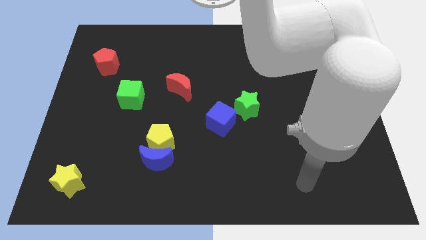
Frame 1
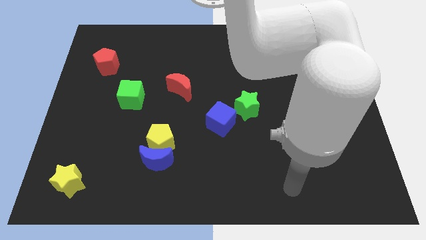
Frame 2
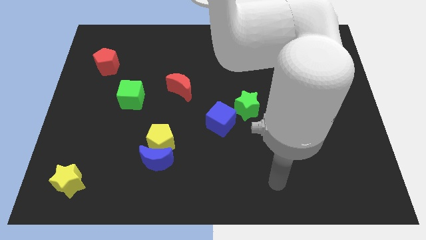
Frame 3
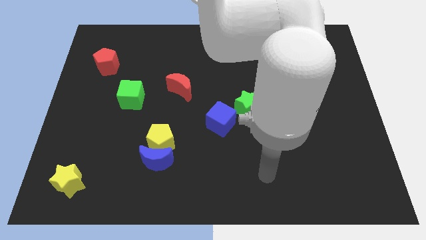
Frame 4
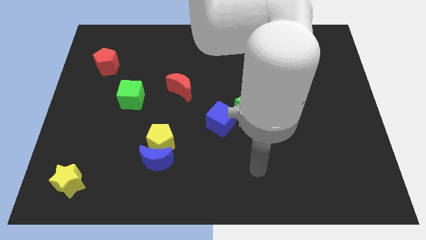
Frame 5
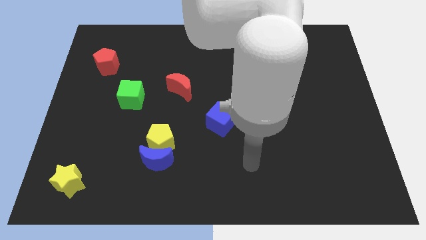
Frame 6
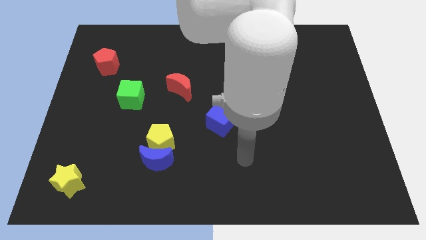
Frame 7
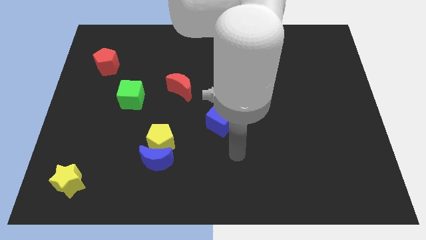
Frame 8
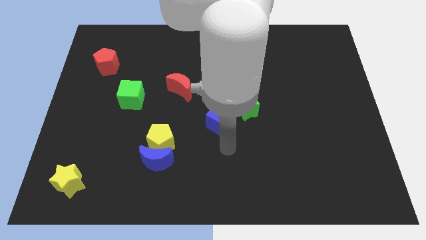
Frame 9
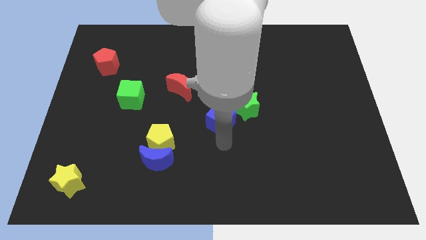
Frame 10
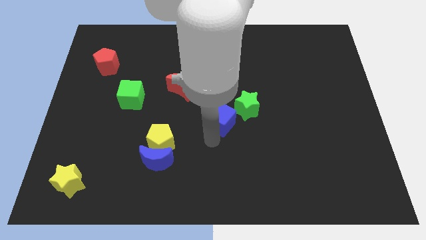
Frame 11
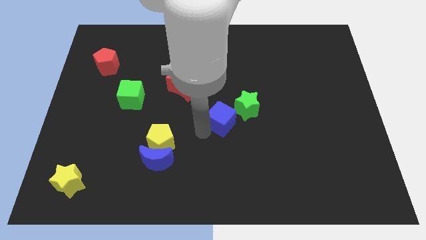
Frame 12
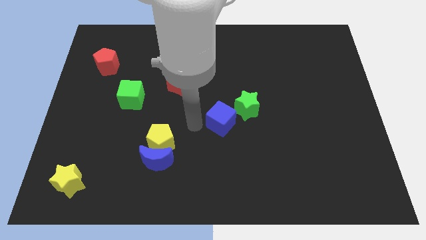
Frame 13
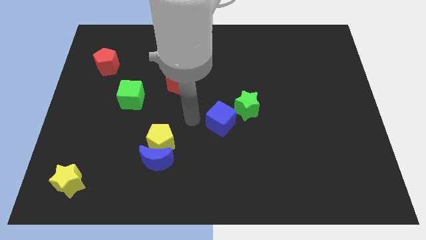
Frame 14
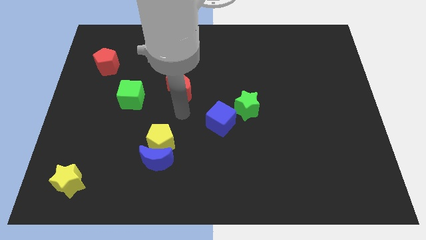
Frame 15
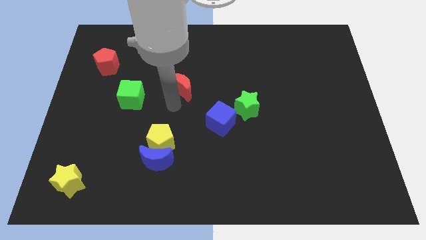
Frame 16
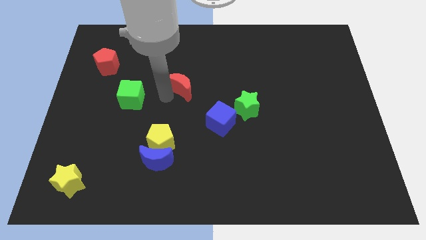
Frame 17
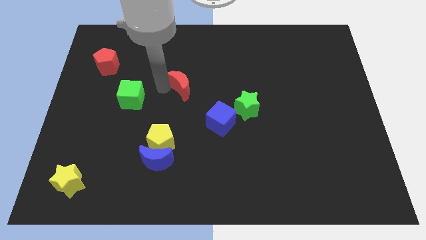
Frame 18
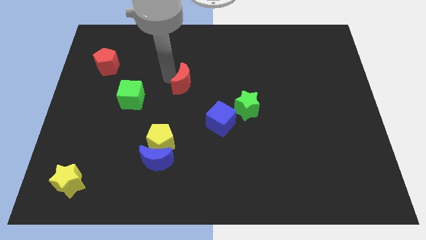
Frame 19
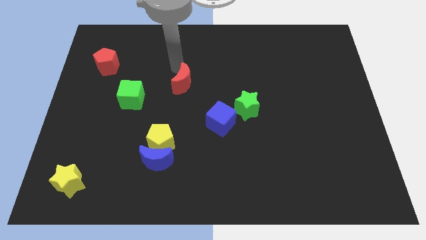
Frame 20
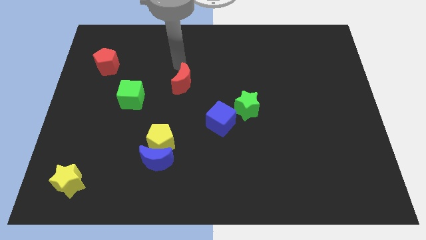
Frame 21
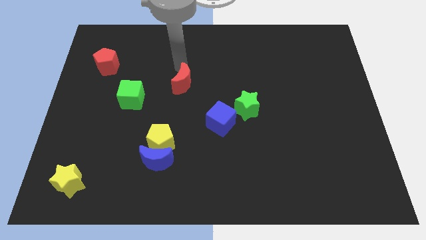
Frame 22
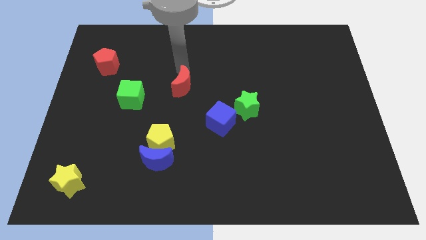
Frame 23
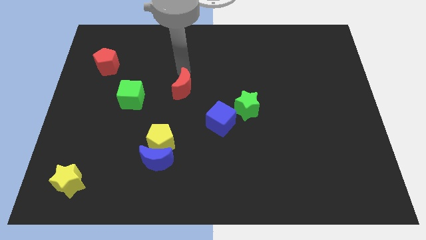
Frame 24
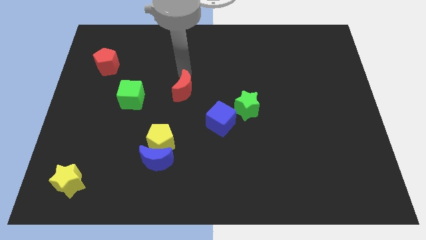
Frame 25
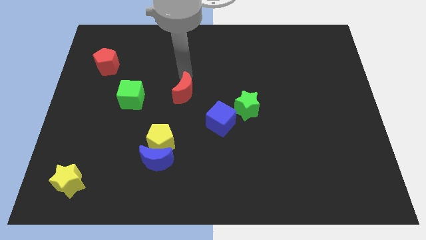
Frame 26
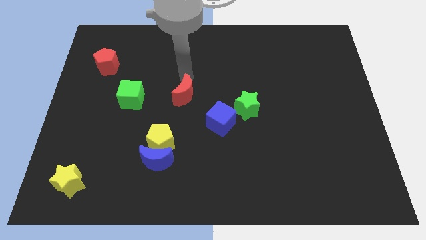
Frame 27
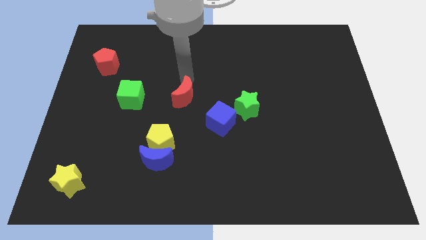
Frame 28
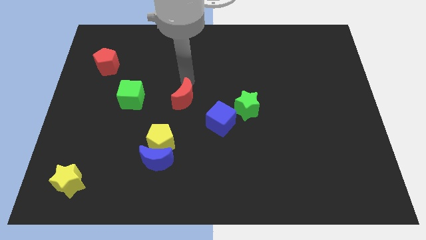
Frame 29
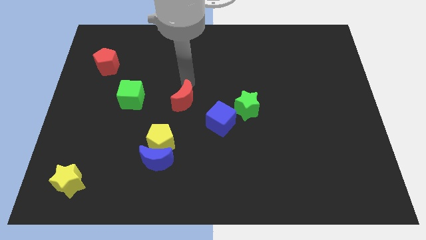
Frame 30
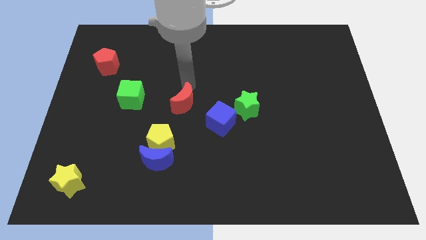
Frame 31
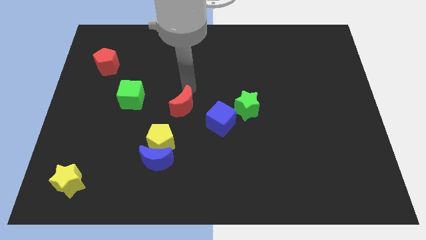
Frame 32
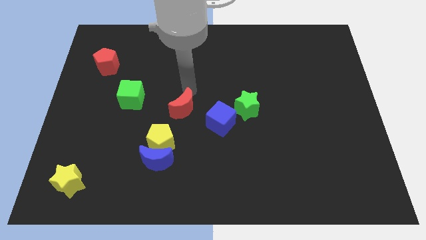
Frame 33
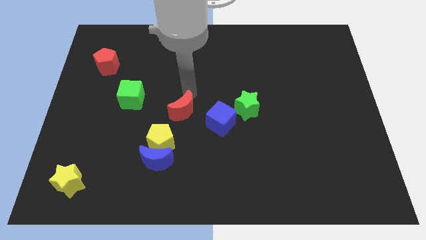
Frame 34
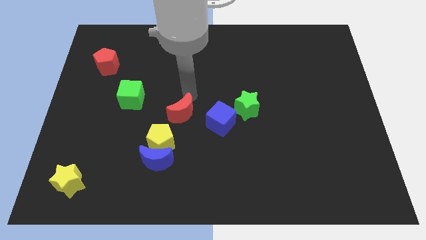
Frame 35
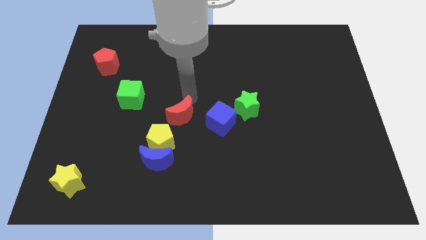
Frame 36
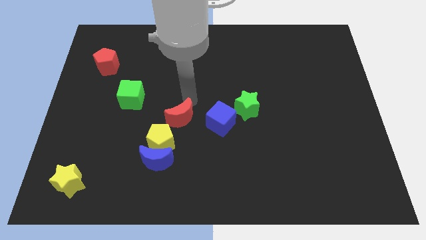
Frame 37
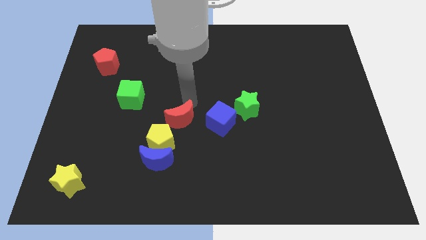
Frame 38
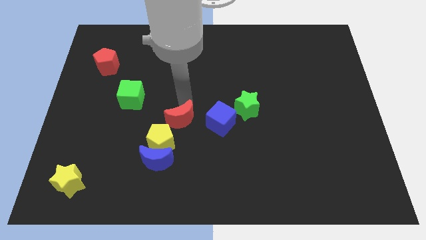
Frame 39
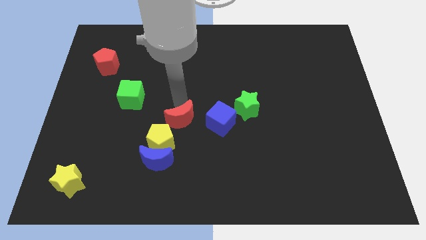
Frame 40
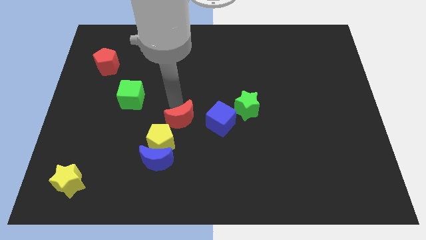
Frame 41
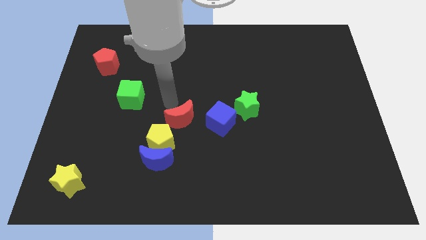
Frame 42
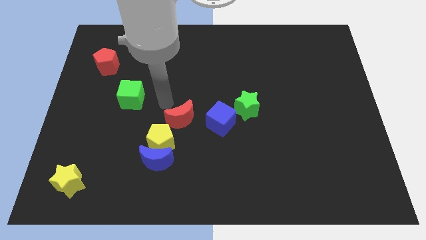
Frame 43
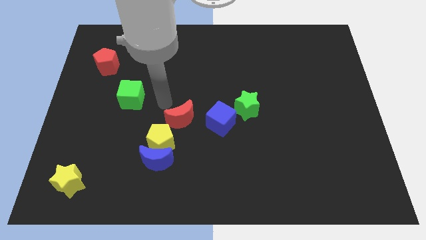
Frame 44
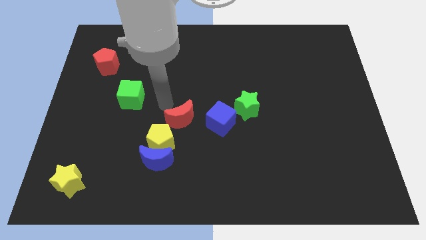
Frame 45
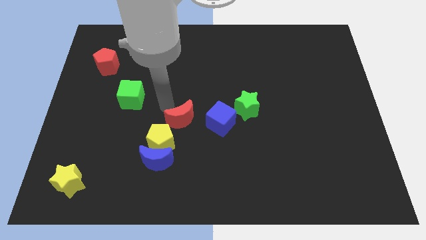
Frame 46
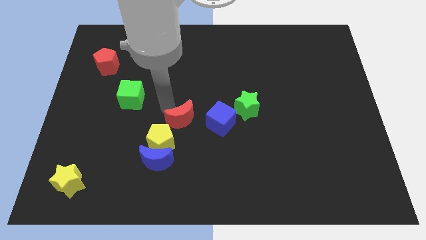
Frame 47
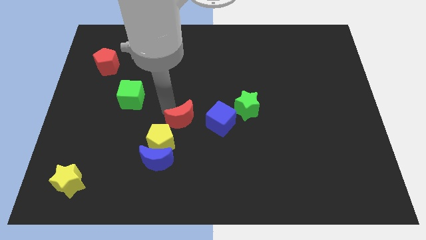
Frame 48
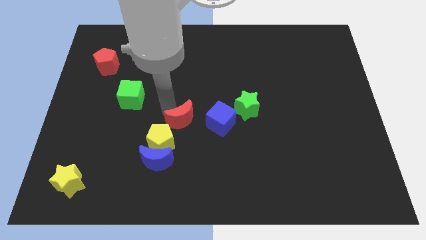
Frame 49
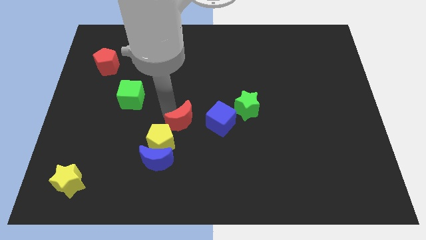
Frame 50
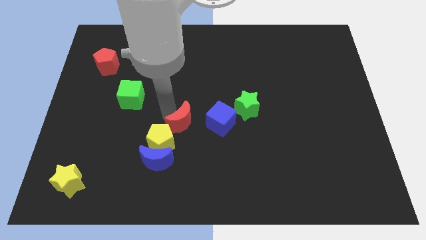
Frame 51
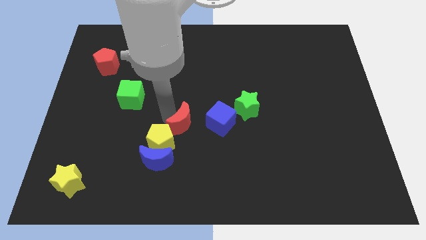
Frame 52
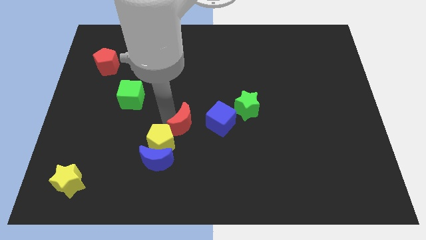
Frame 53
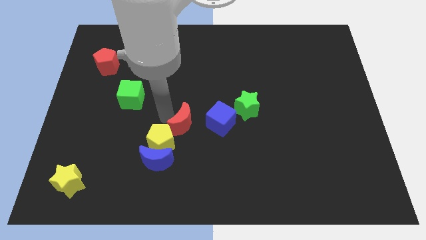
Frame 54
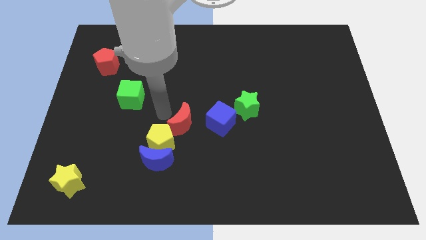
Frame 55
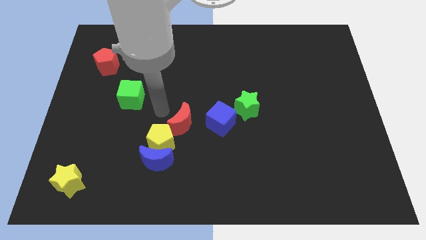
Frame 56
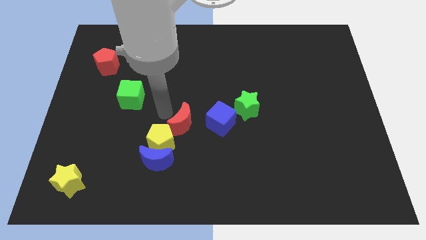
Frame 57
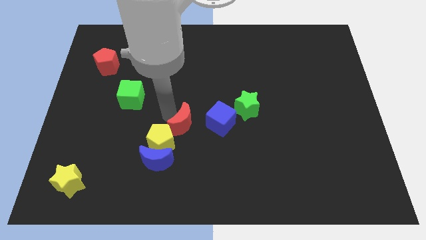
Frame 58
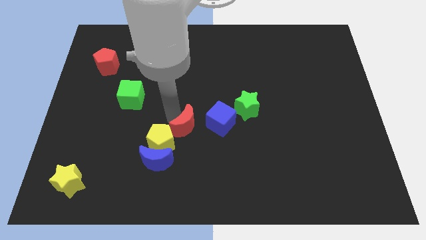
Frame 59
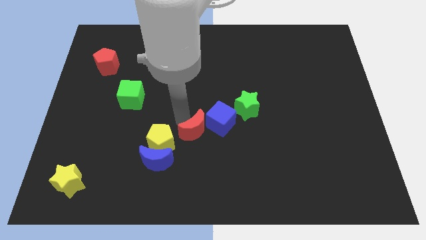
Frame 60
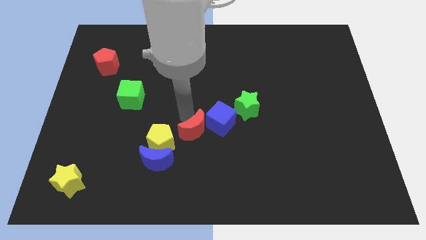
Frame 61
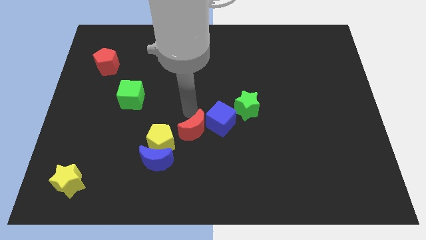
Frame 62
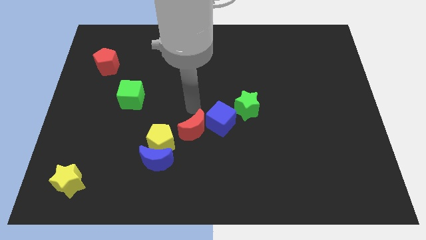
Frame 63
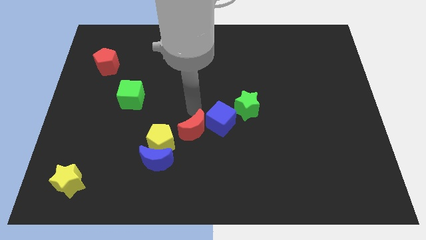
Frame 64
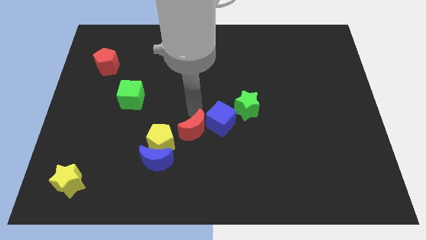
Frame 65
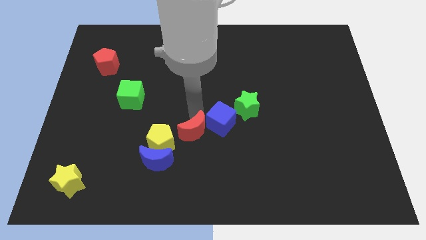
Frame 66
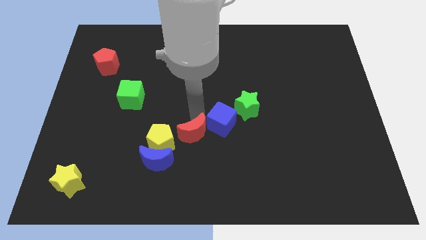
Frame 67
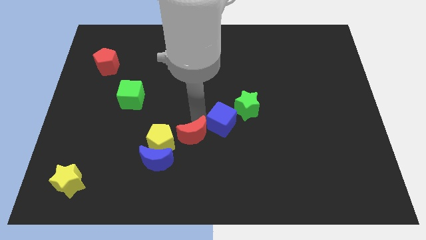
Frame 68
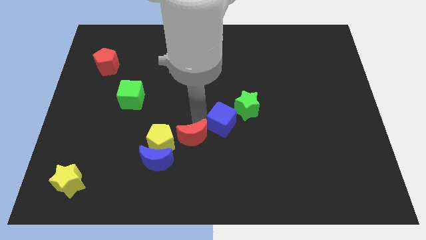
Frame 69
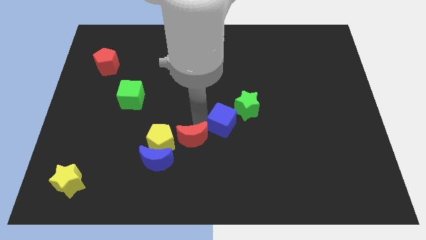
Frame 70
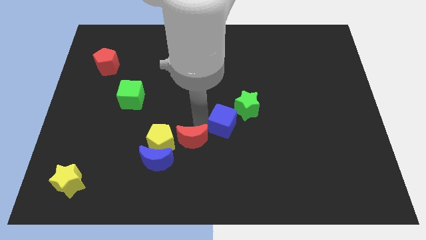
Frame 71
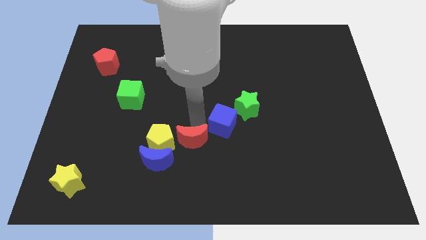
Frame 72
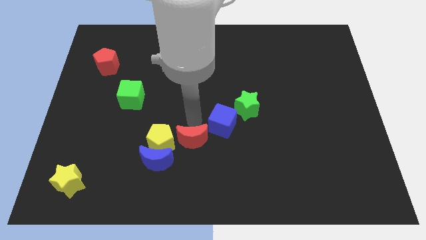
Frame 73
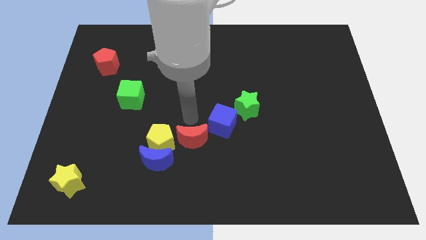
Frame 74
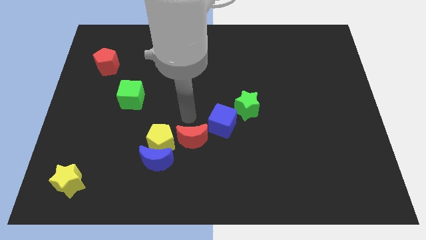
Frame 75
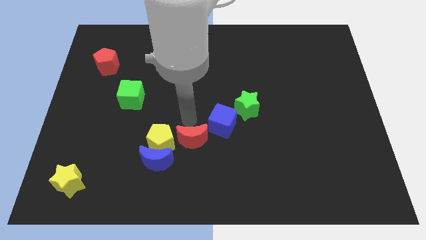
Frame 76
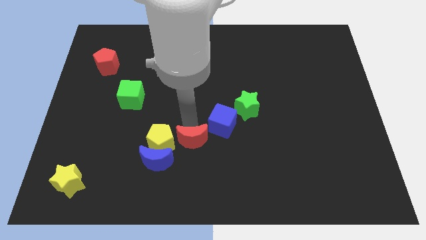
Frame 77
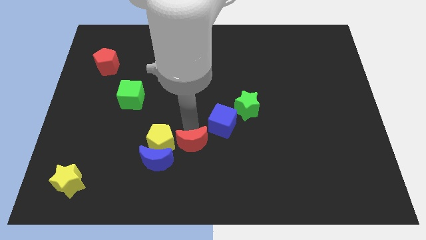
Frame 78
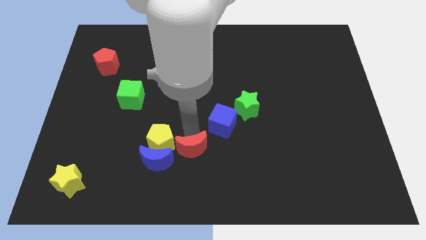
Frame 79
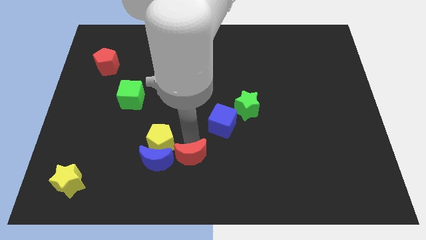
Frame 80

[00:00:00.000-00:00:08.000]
slide the red moon to the bottom

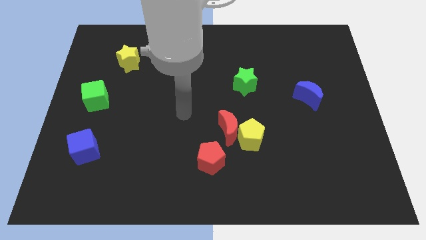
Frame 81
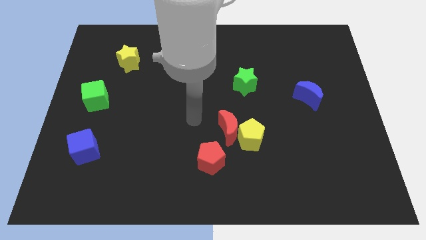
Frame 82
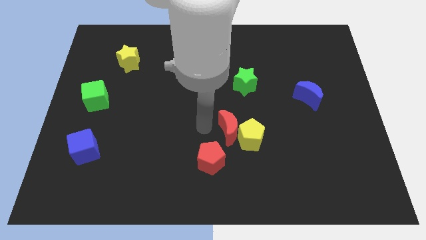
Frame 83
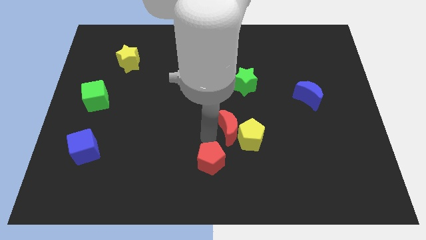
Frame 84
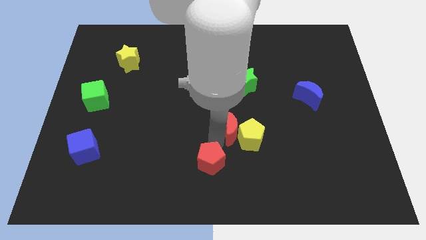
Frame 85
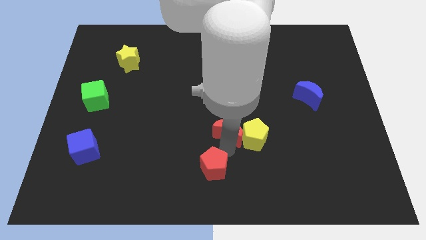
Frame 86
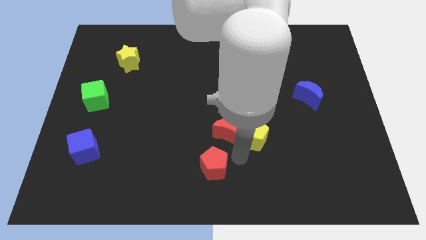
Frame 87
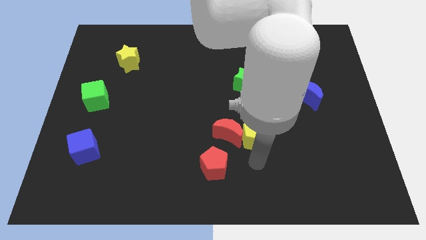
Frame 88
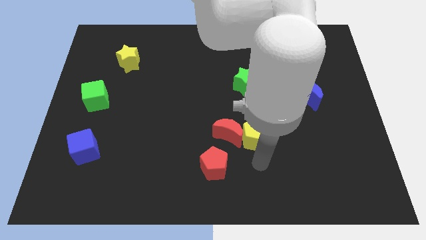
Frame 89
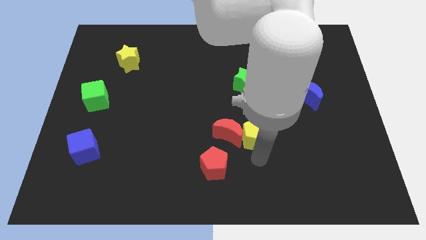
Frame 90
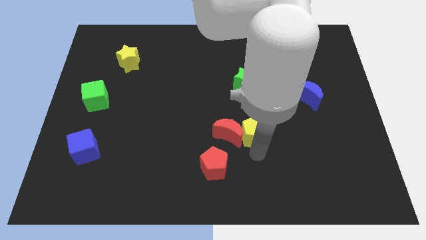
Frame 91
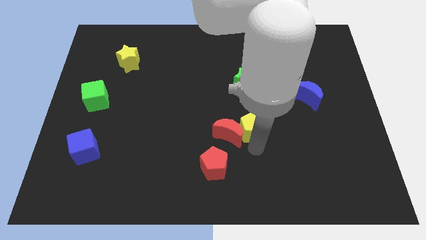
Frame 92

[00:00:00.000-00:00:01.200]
move the yellow pentagon to the middle
